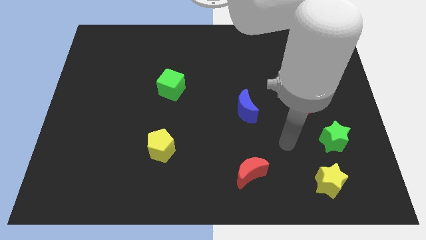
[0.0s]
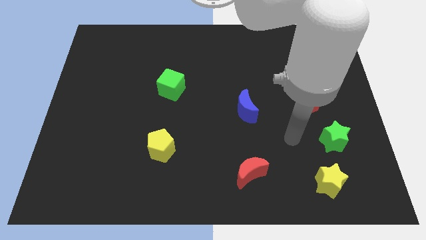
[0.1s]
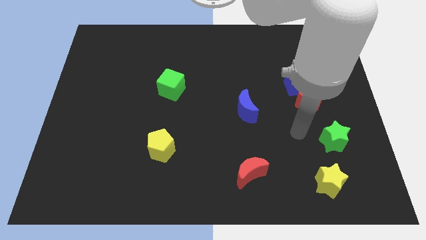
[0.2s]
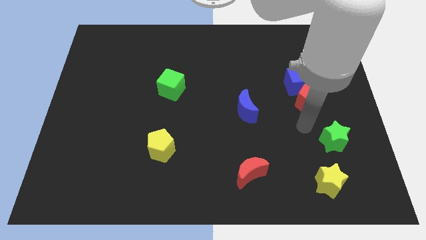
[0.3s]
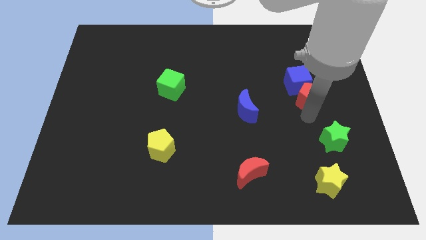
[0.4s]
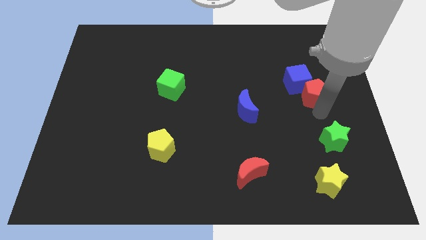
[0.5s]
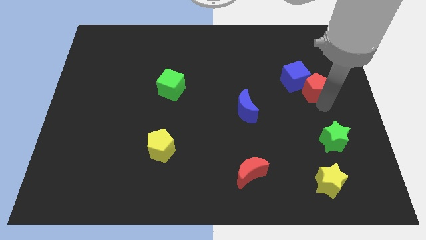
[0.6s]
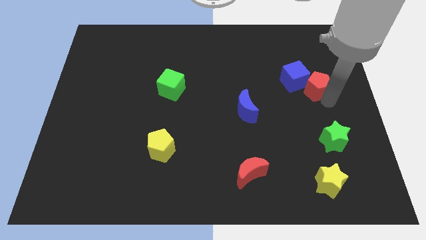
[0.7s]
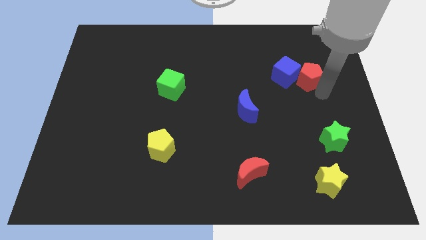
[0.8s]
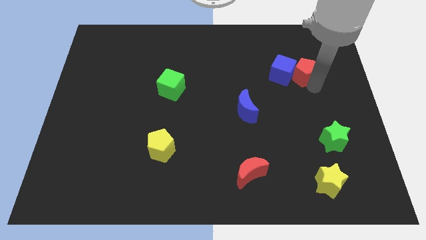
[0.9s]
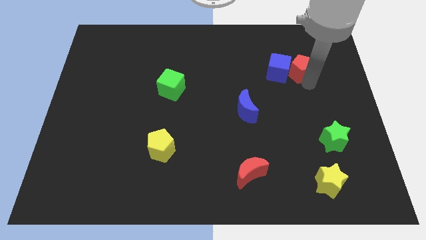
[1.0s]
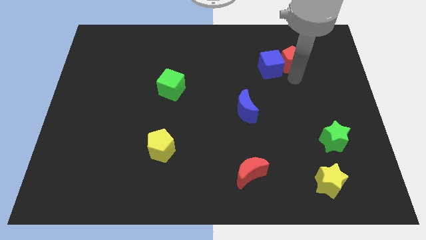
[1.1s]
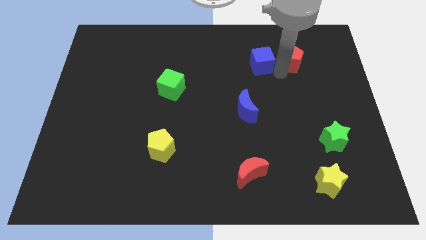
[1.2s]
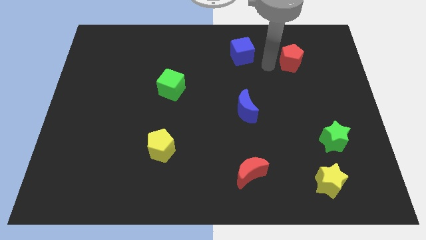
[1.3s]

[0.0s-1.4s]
move the red pentagon away from the blue cube

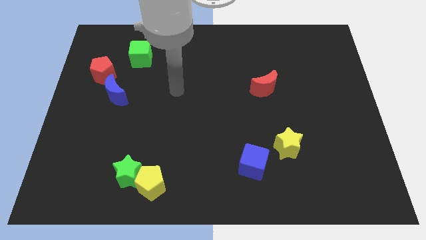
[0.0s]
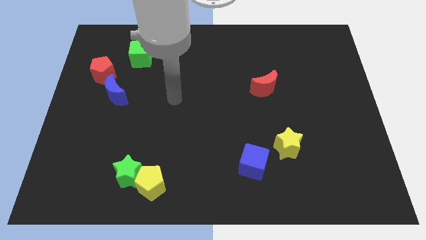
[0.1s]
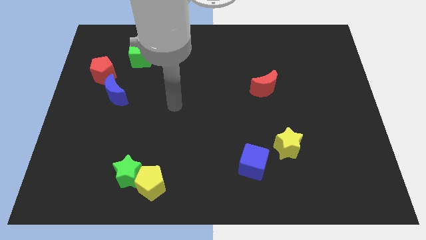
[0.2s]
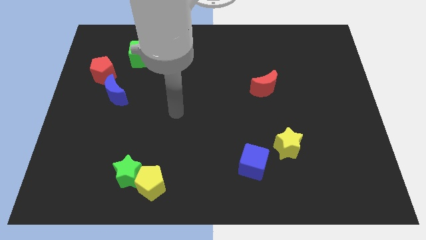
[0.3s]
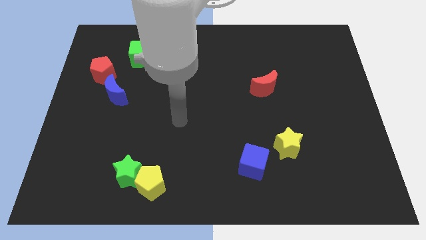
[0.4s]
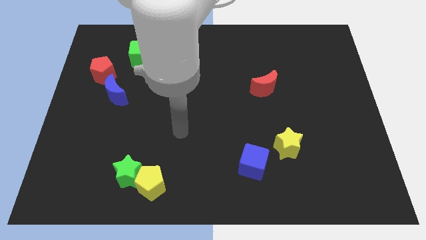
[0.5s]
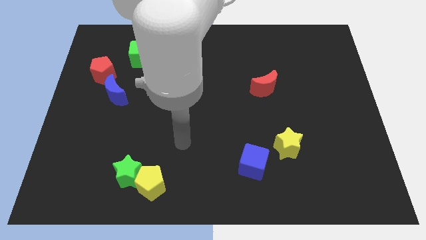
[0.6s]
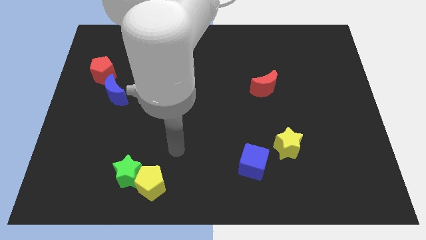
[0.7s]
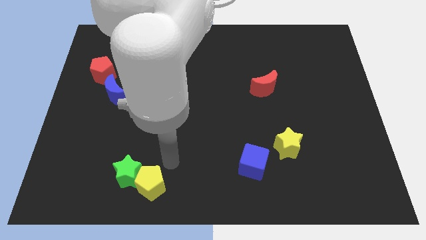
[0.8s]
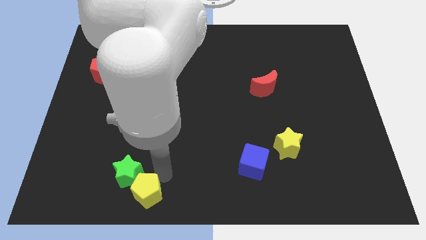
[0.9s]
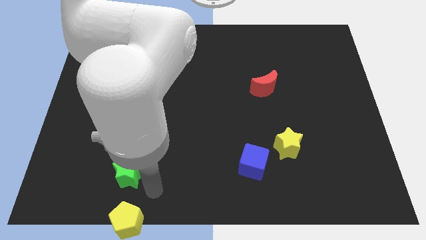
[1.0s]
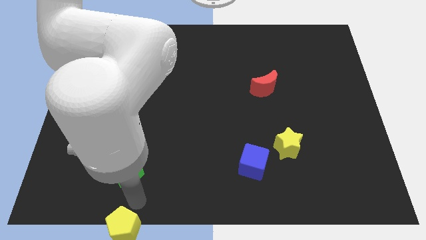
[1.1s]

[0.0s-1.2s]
move the green star away from the yellow pentagon

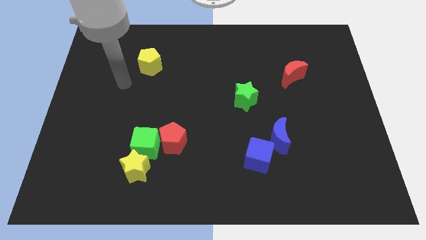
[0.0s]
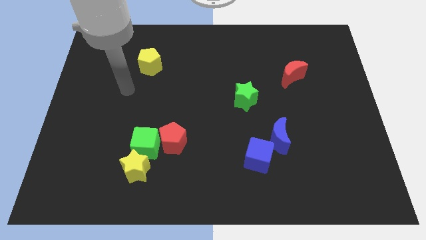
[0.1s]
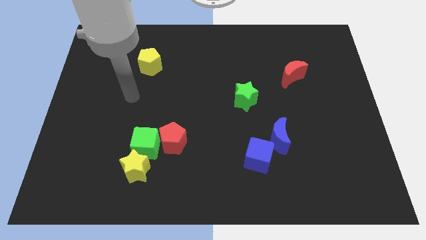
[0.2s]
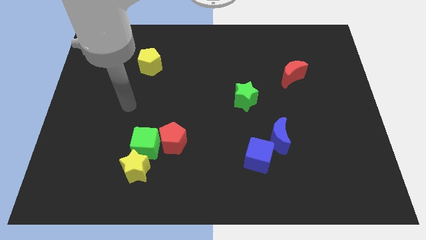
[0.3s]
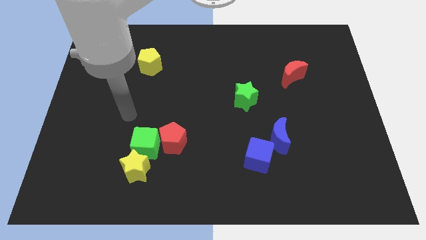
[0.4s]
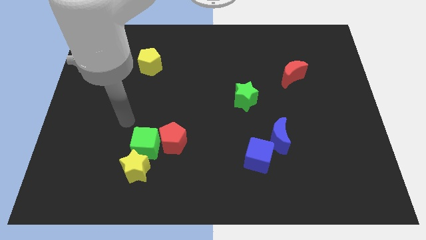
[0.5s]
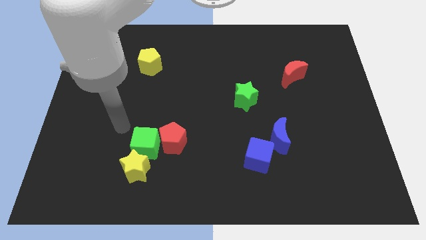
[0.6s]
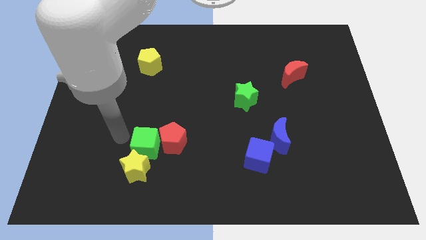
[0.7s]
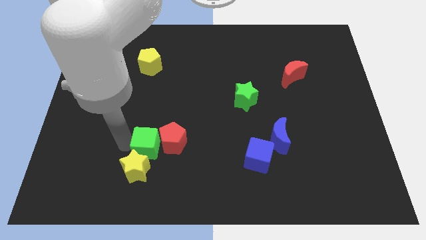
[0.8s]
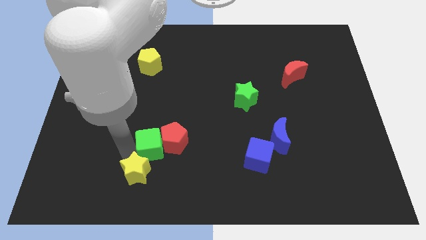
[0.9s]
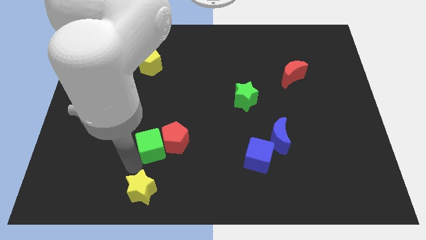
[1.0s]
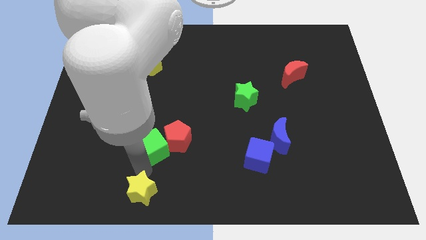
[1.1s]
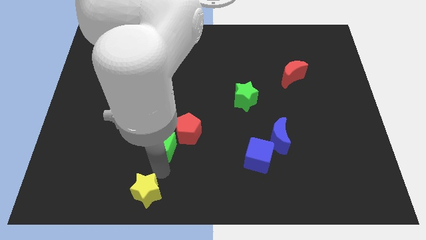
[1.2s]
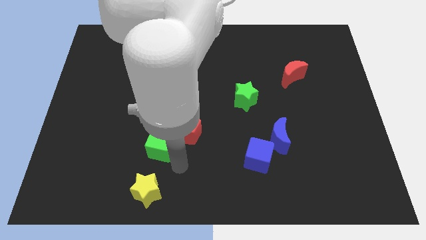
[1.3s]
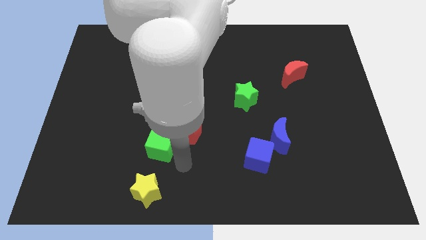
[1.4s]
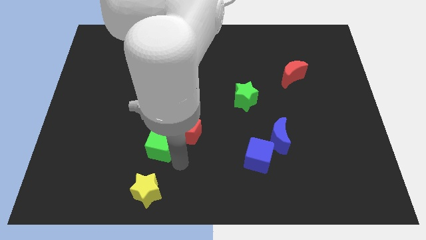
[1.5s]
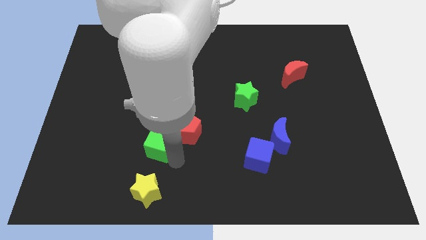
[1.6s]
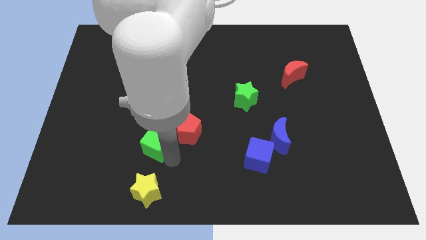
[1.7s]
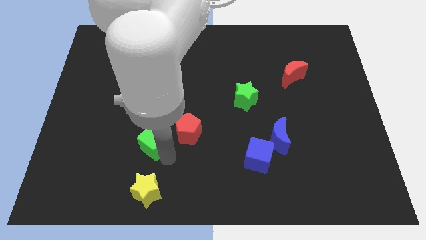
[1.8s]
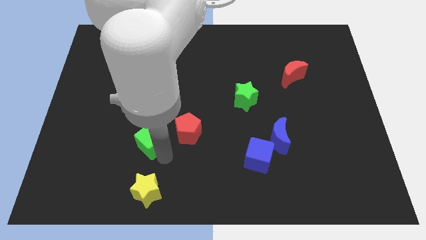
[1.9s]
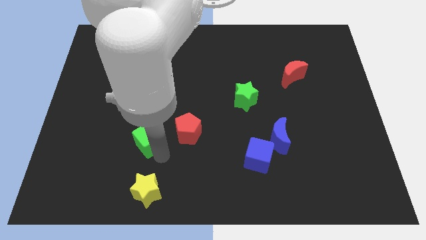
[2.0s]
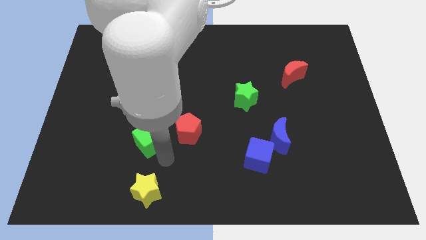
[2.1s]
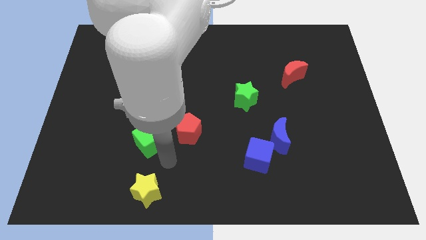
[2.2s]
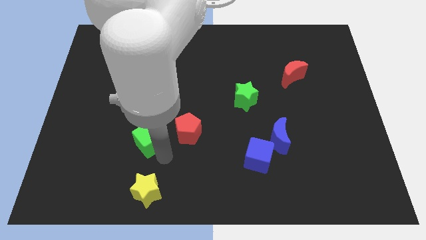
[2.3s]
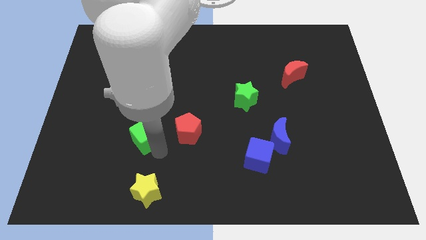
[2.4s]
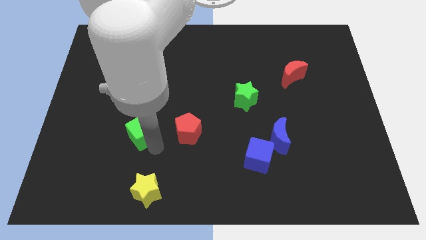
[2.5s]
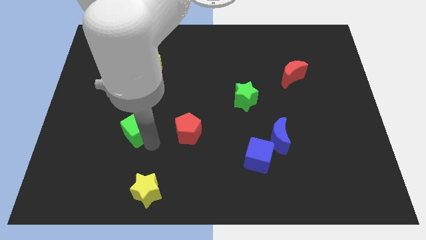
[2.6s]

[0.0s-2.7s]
separate the green cube from the red pentagon and yellow star

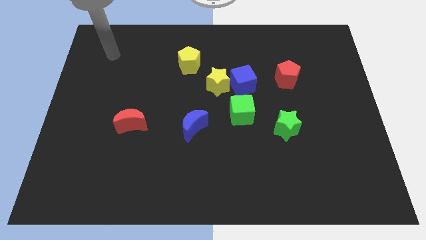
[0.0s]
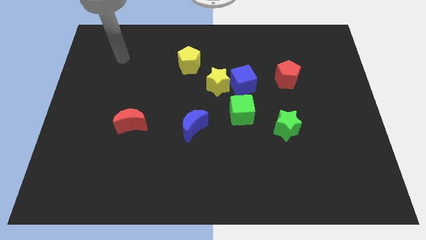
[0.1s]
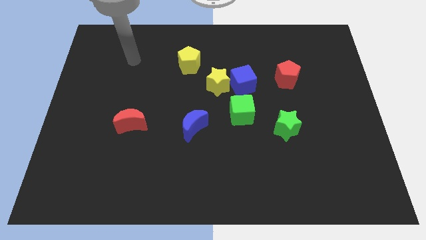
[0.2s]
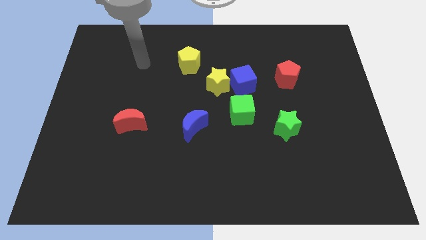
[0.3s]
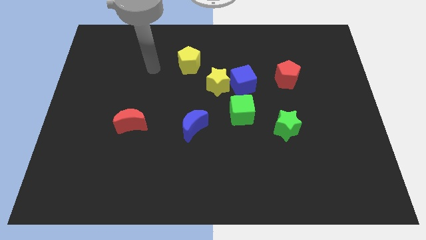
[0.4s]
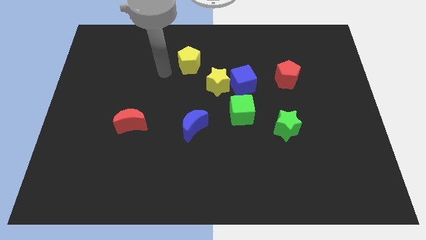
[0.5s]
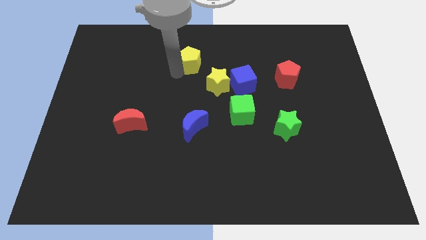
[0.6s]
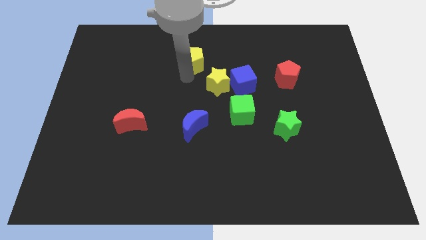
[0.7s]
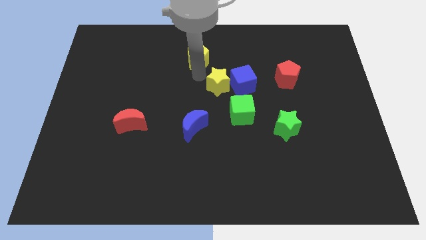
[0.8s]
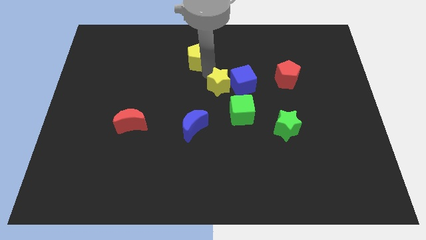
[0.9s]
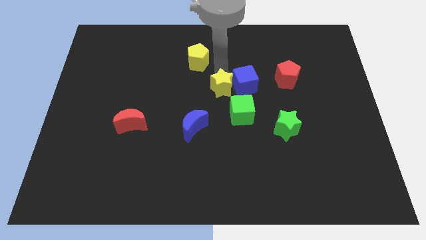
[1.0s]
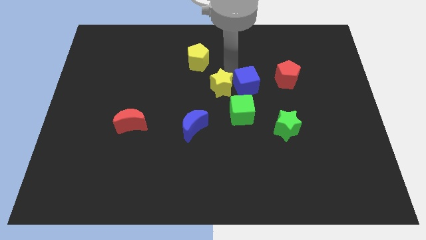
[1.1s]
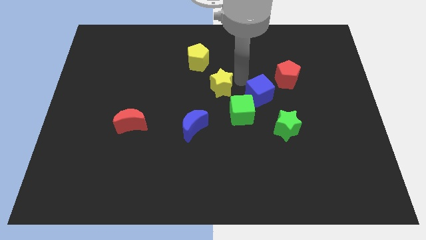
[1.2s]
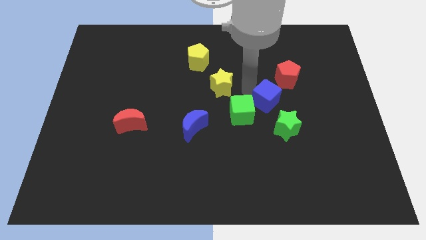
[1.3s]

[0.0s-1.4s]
separate the yellow star from the blue cube

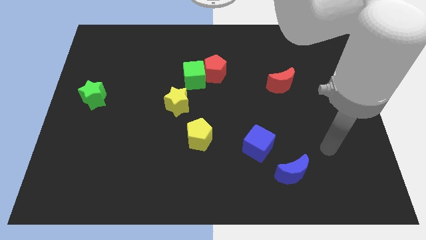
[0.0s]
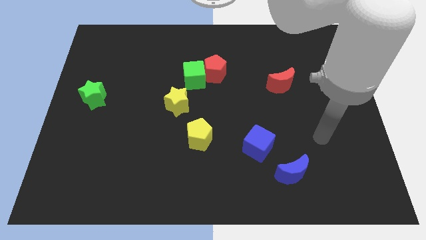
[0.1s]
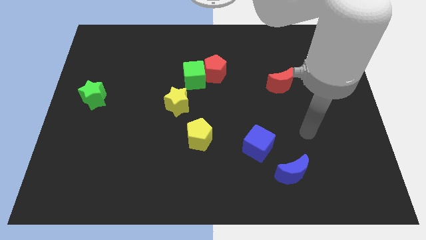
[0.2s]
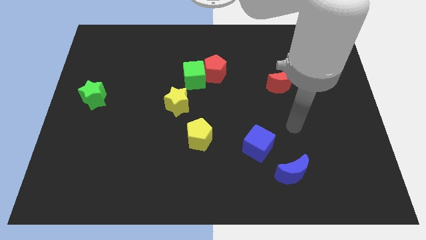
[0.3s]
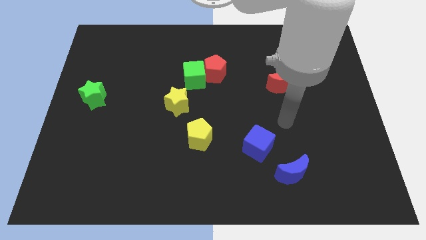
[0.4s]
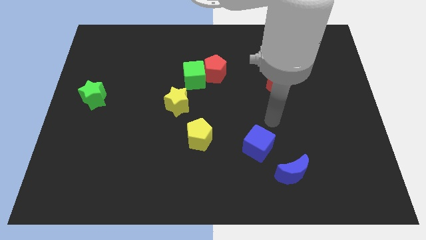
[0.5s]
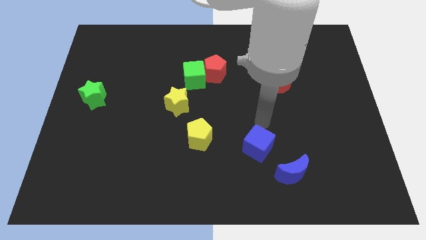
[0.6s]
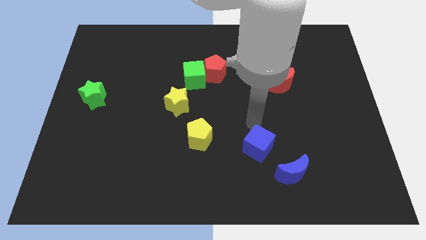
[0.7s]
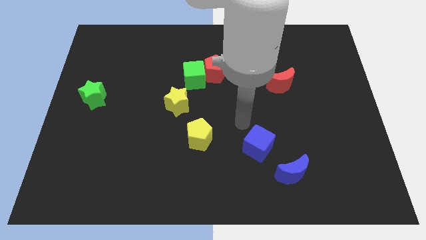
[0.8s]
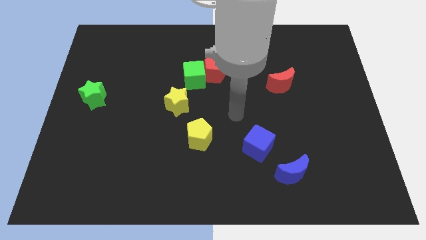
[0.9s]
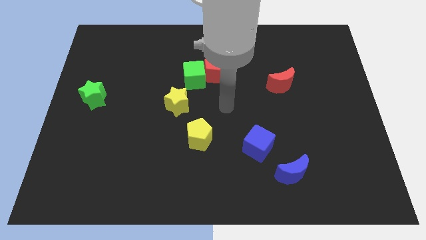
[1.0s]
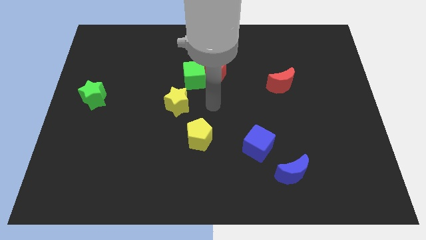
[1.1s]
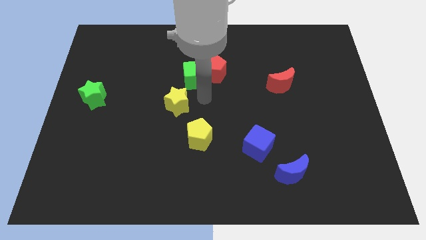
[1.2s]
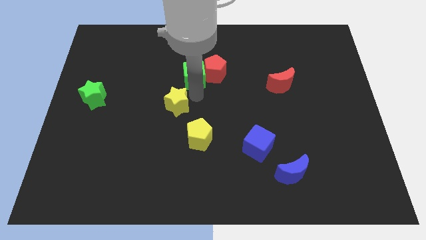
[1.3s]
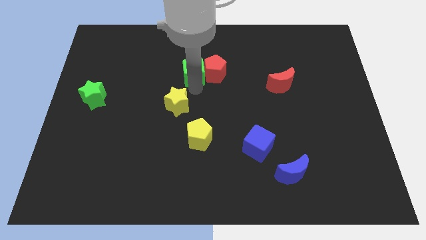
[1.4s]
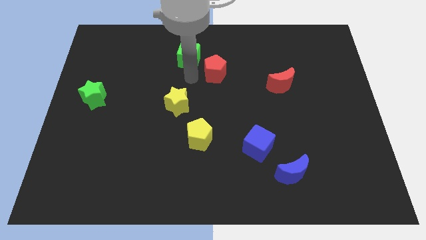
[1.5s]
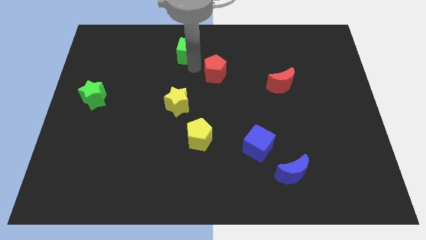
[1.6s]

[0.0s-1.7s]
move the red pentagon away from the green cube

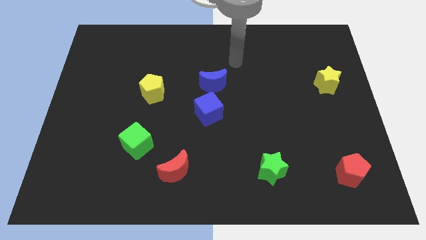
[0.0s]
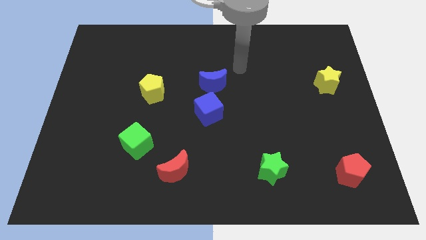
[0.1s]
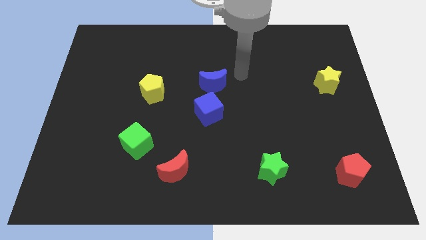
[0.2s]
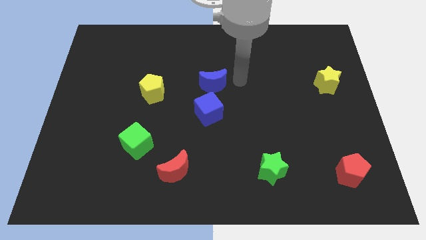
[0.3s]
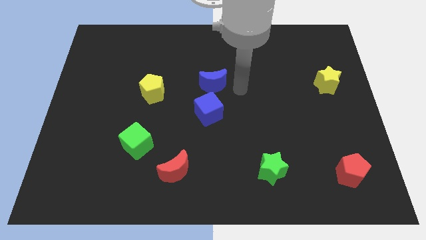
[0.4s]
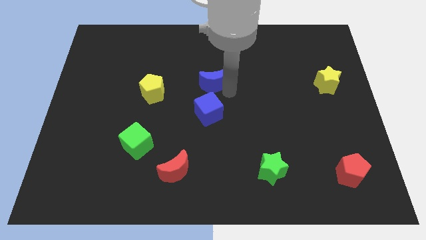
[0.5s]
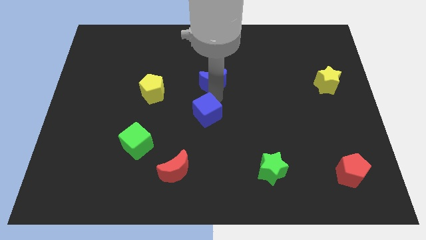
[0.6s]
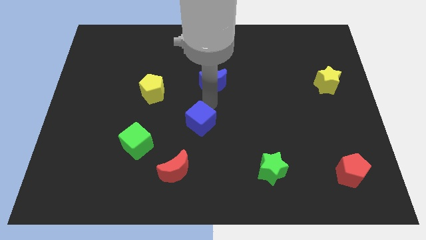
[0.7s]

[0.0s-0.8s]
move the blue moon away from the blue cube
